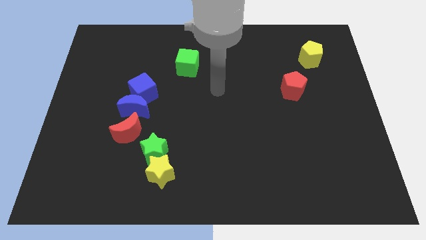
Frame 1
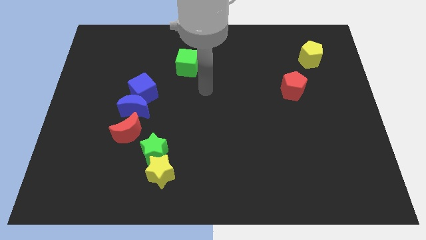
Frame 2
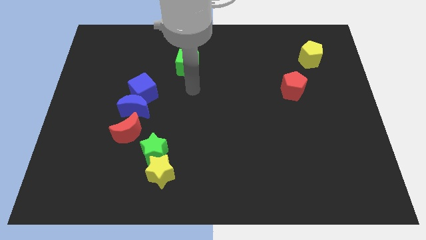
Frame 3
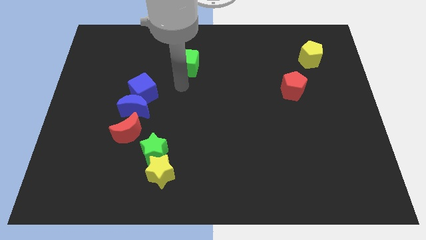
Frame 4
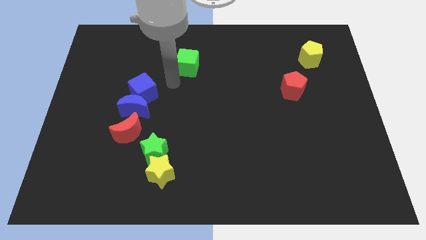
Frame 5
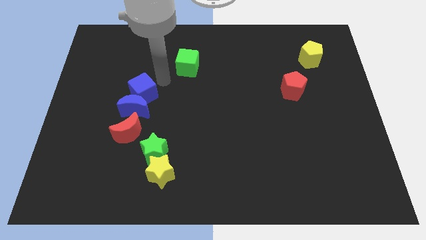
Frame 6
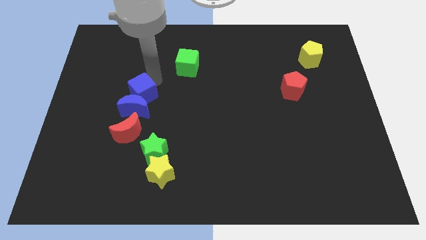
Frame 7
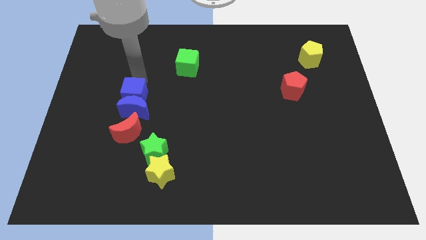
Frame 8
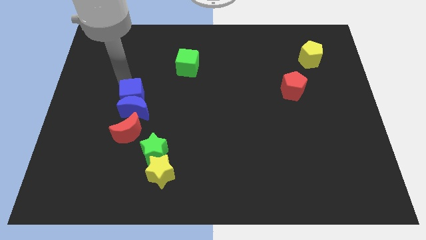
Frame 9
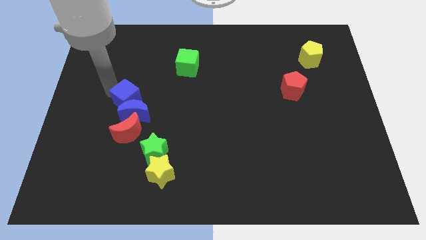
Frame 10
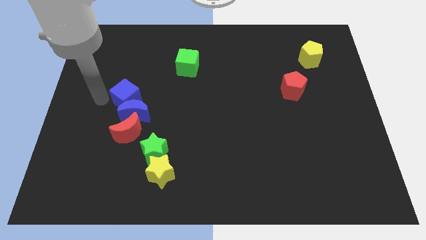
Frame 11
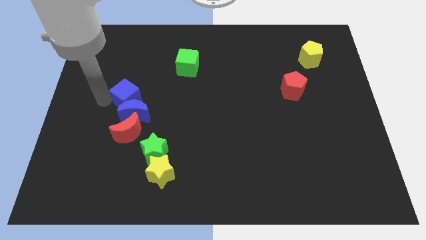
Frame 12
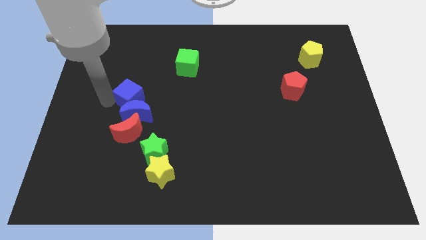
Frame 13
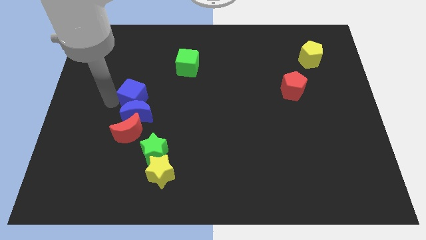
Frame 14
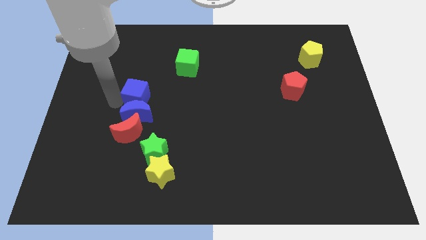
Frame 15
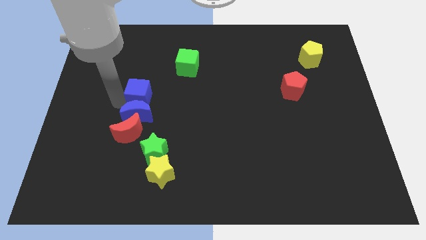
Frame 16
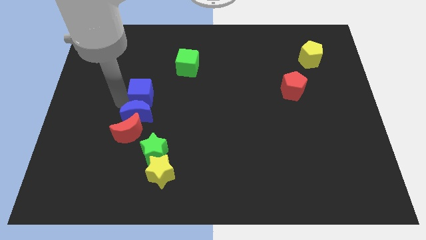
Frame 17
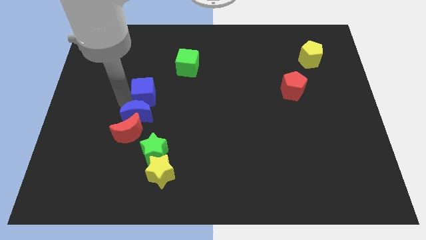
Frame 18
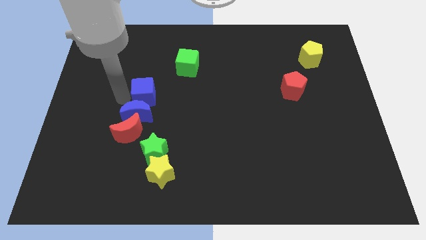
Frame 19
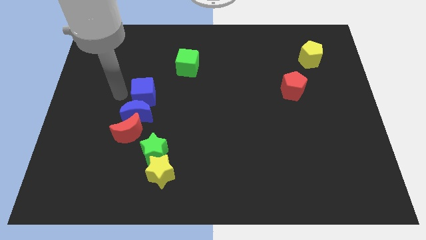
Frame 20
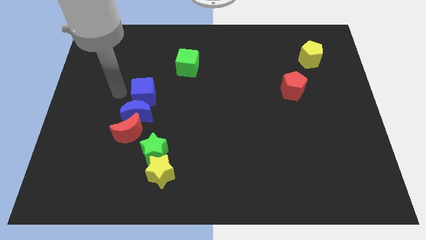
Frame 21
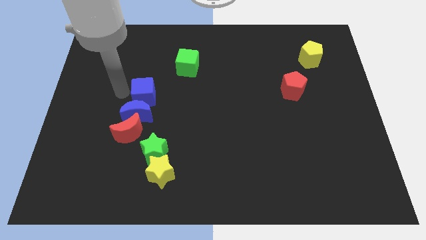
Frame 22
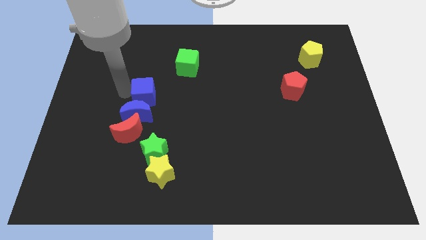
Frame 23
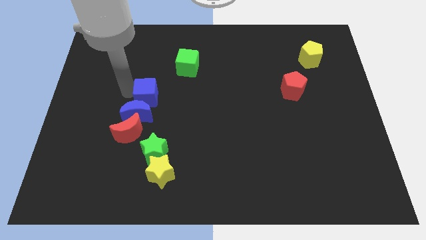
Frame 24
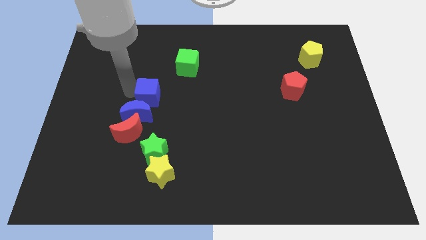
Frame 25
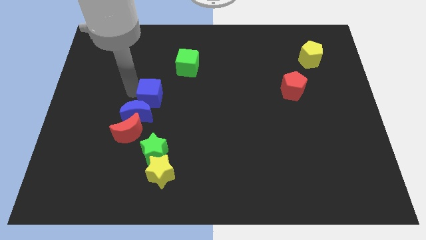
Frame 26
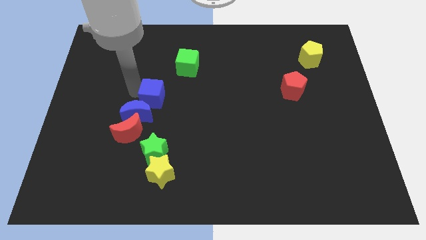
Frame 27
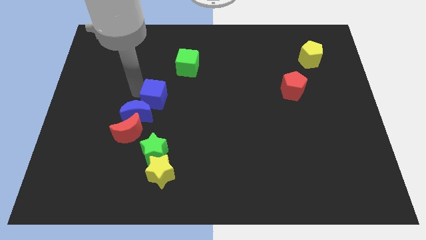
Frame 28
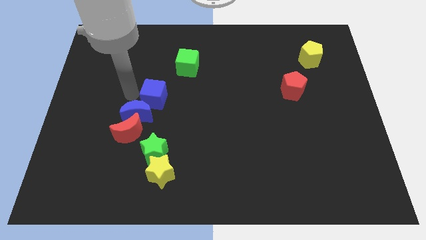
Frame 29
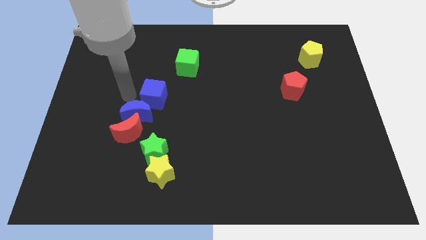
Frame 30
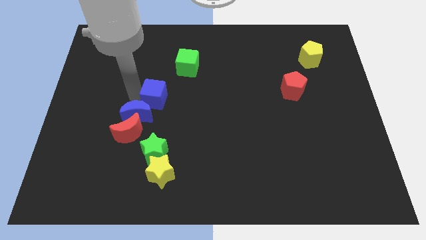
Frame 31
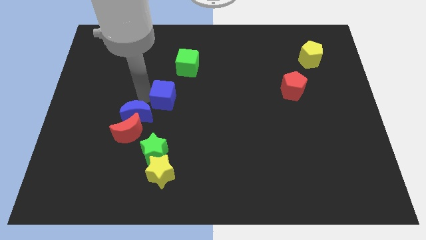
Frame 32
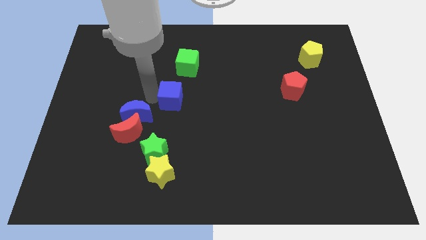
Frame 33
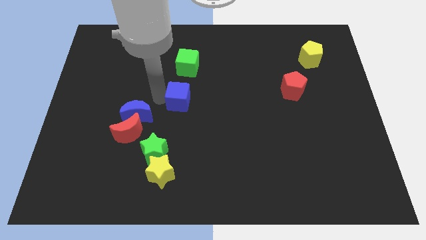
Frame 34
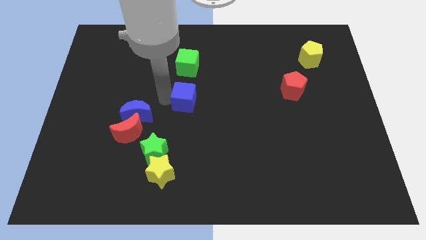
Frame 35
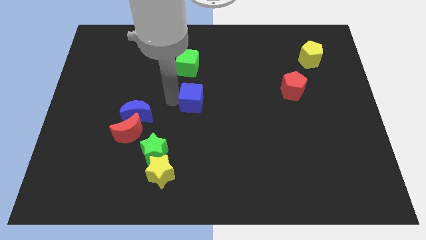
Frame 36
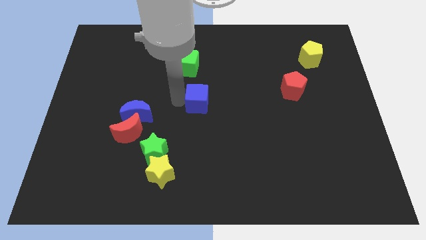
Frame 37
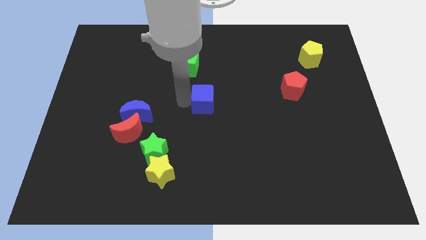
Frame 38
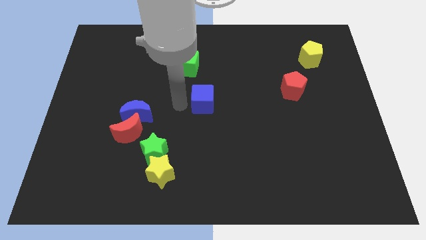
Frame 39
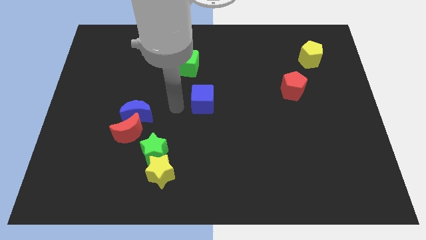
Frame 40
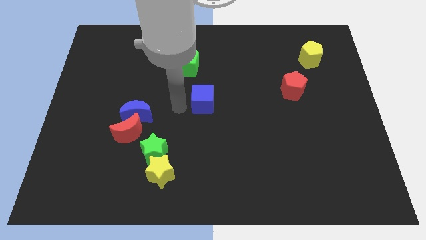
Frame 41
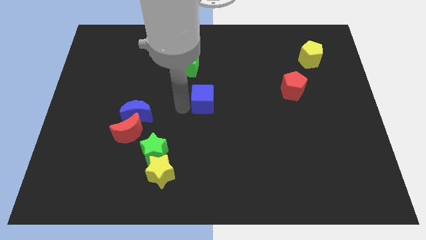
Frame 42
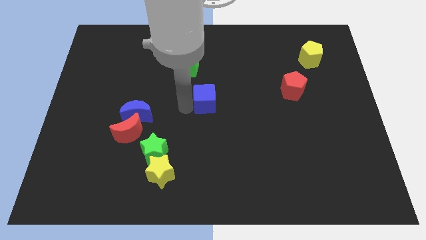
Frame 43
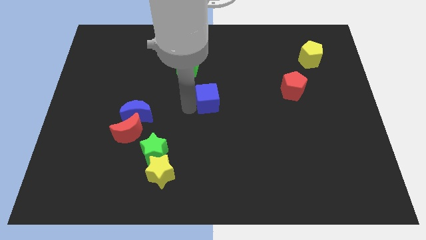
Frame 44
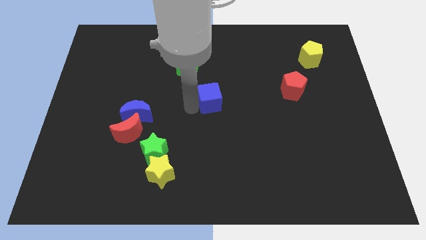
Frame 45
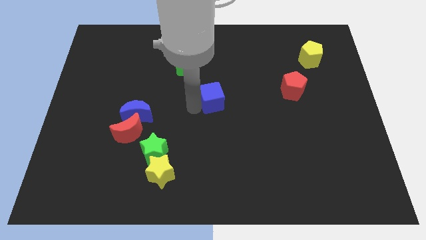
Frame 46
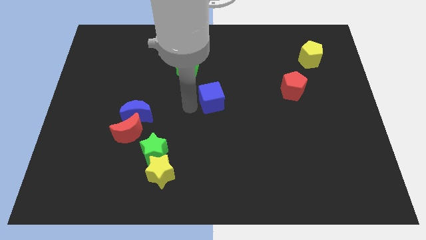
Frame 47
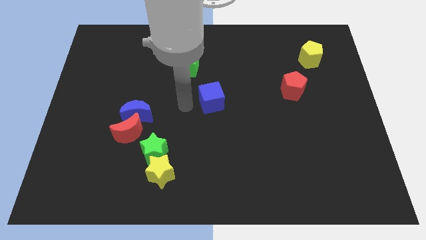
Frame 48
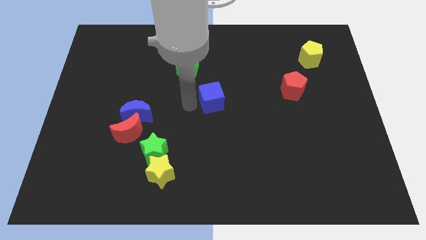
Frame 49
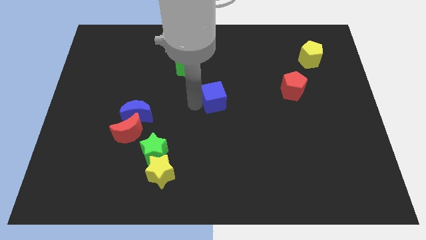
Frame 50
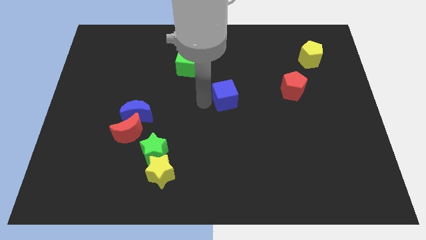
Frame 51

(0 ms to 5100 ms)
slide the blue cube right

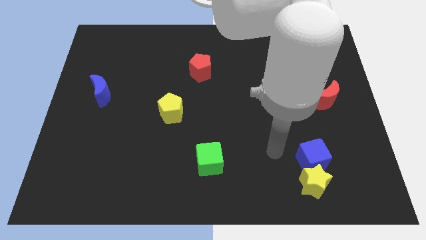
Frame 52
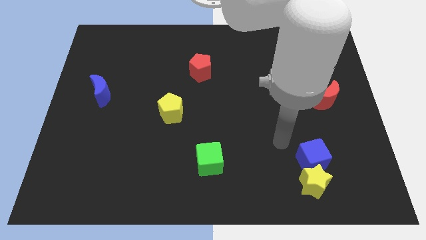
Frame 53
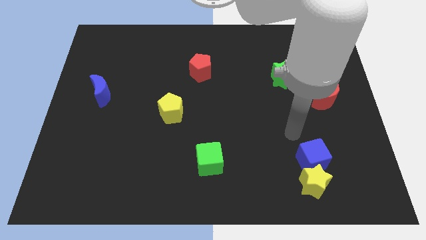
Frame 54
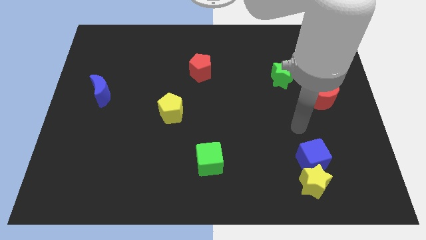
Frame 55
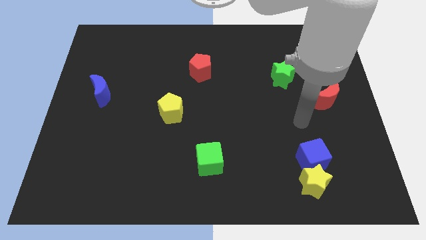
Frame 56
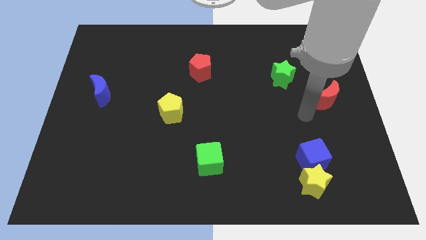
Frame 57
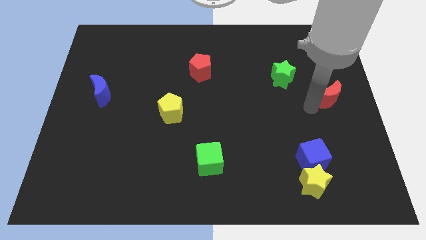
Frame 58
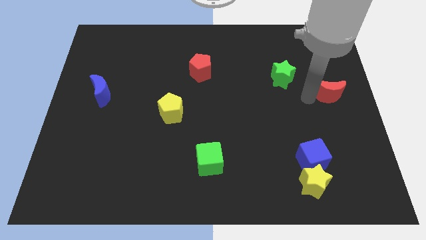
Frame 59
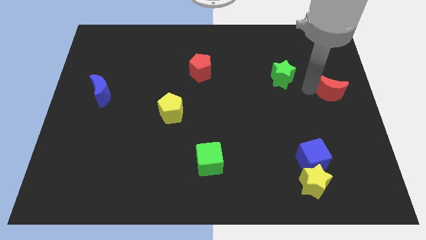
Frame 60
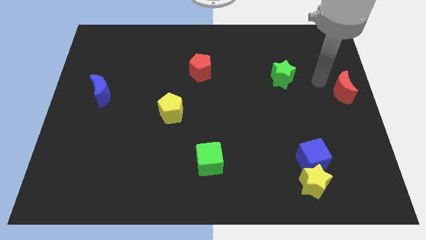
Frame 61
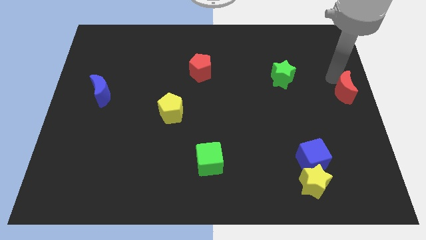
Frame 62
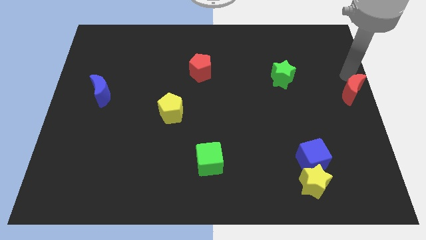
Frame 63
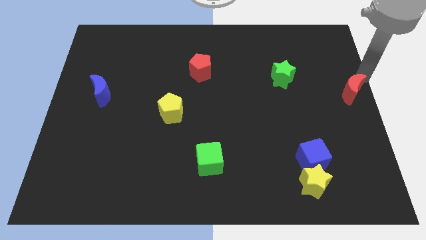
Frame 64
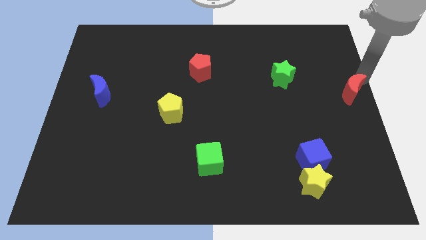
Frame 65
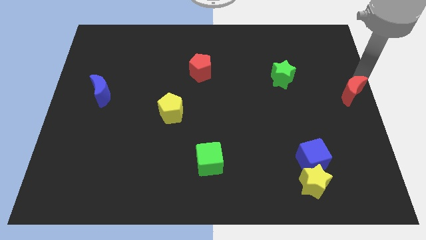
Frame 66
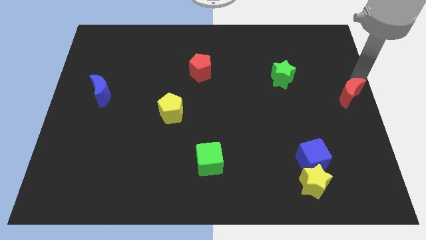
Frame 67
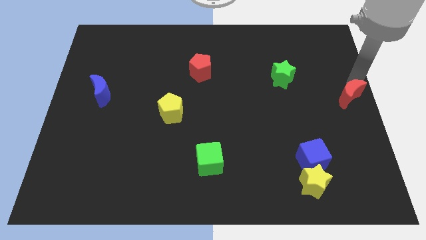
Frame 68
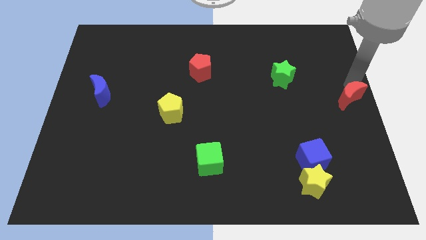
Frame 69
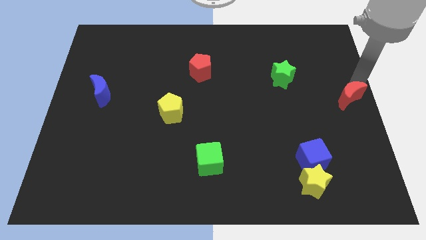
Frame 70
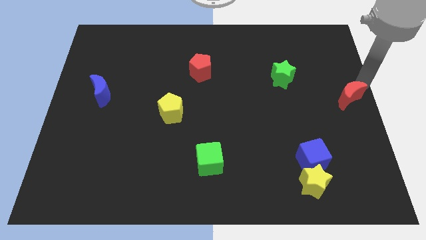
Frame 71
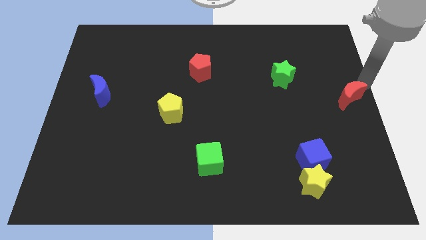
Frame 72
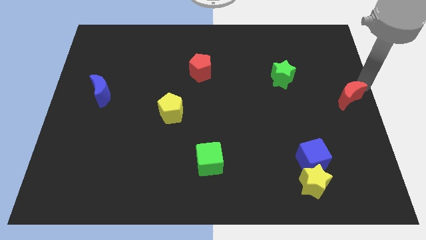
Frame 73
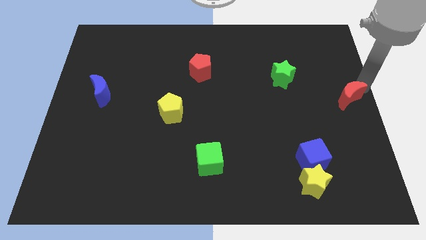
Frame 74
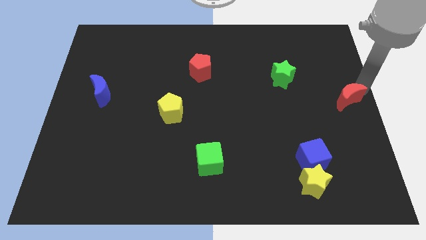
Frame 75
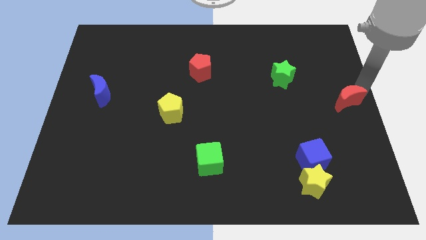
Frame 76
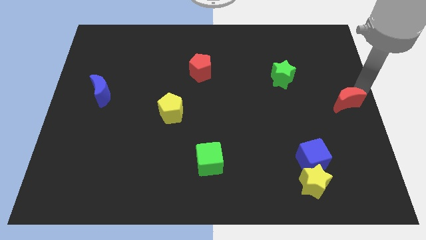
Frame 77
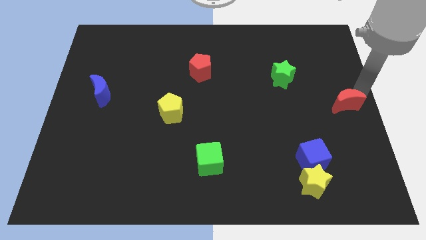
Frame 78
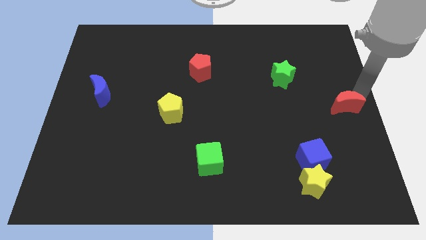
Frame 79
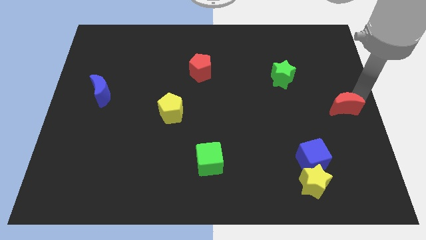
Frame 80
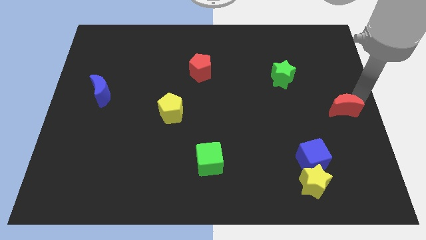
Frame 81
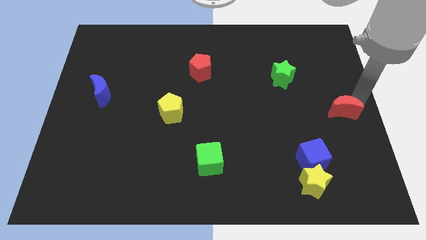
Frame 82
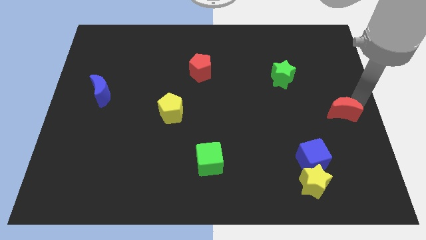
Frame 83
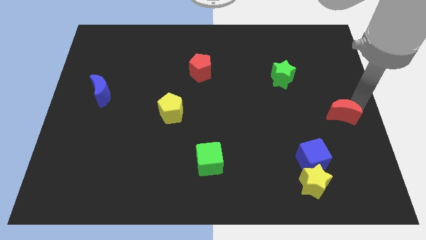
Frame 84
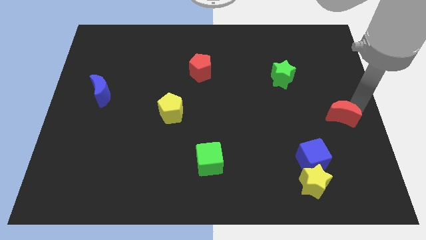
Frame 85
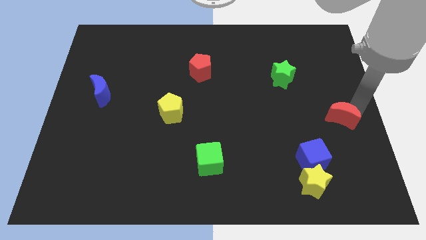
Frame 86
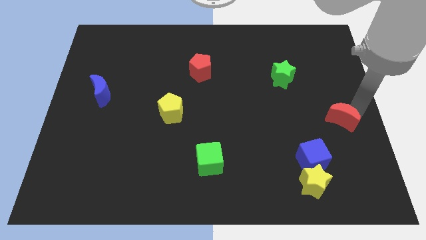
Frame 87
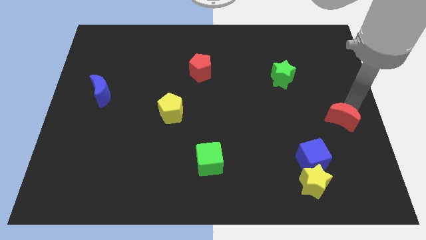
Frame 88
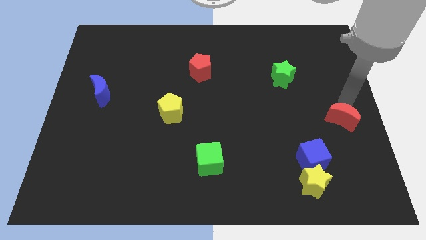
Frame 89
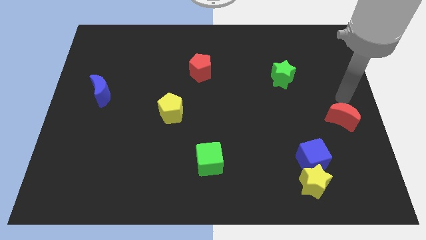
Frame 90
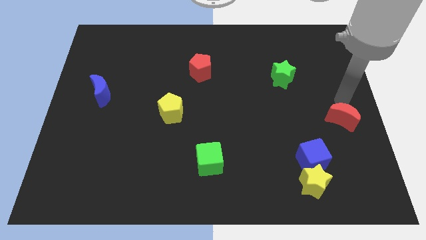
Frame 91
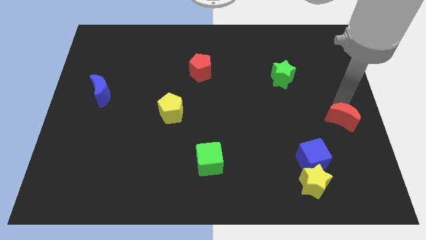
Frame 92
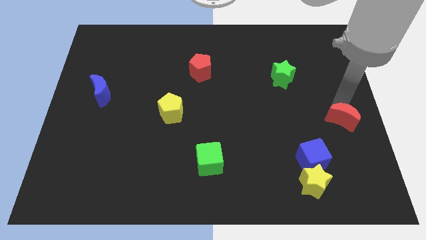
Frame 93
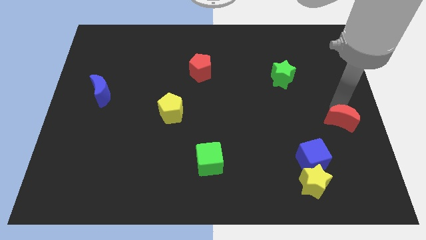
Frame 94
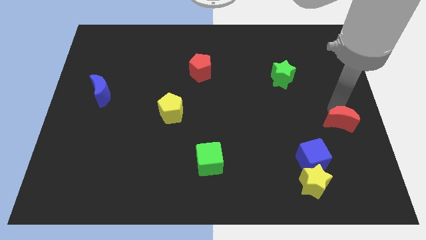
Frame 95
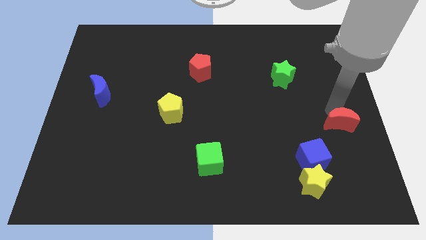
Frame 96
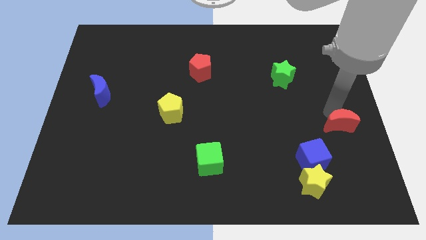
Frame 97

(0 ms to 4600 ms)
move the red moon a little downwards
